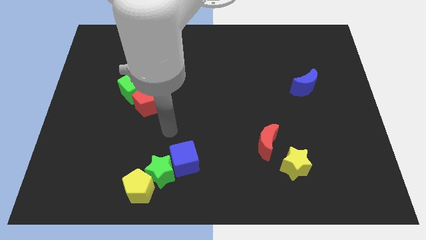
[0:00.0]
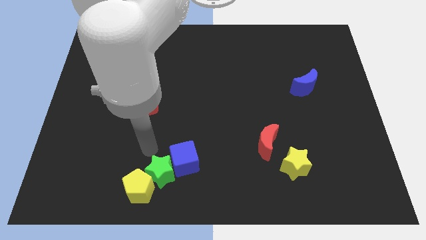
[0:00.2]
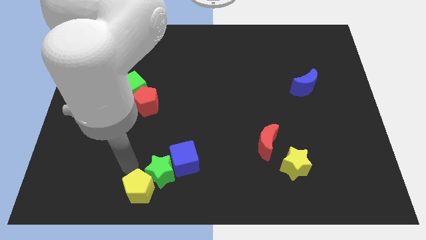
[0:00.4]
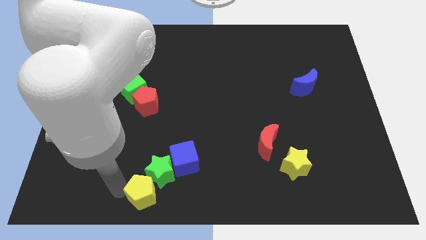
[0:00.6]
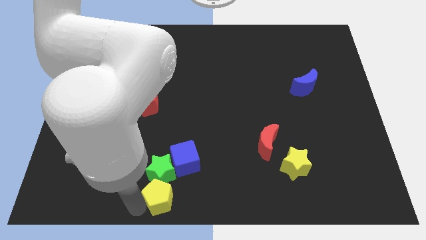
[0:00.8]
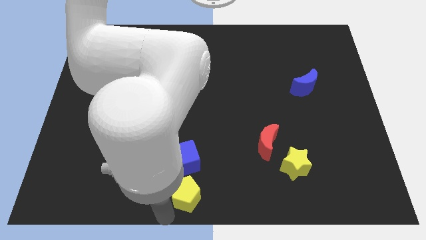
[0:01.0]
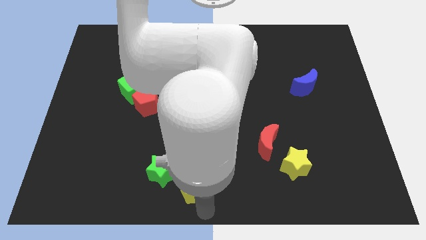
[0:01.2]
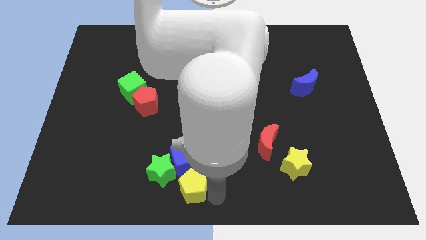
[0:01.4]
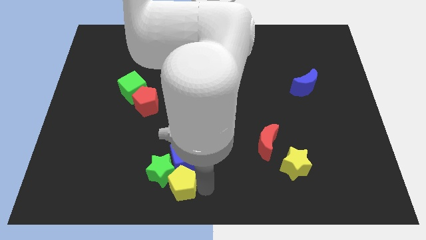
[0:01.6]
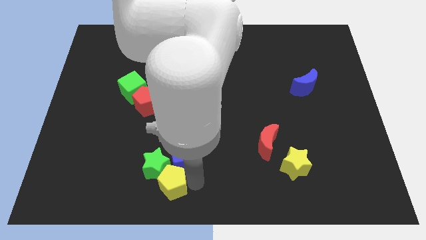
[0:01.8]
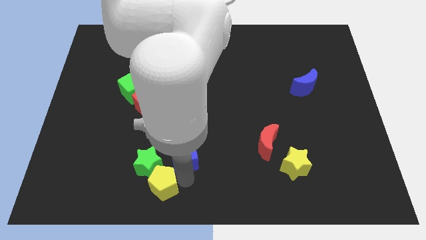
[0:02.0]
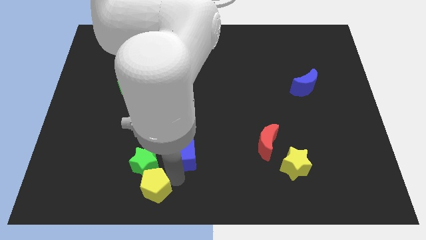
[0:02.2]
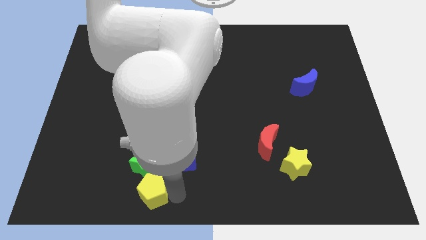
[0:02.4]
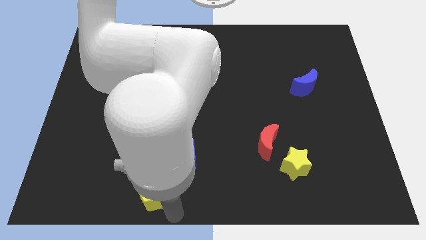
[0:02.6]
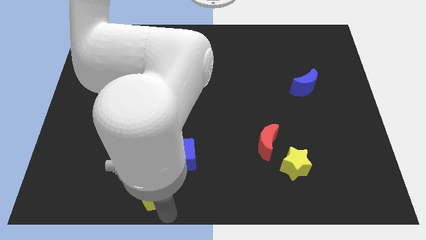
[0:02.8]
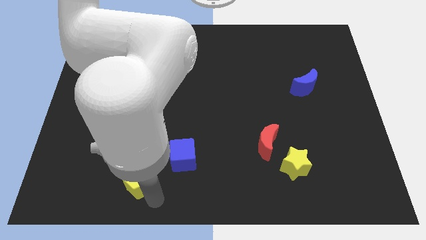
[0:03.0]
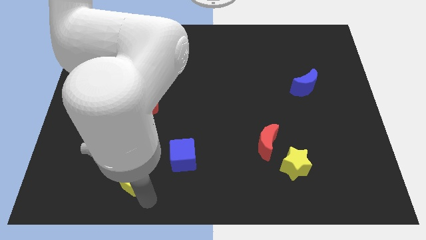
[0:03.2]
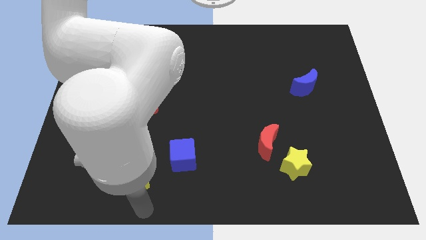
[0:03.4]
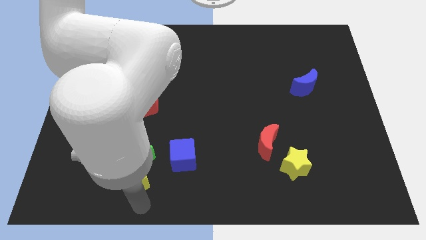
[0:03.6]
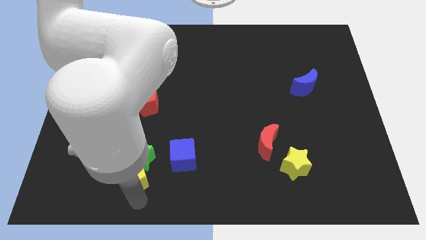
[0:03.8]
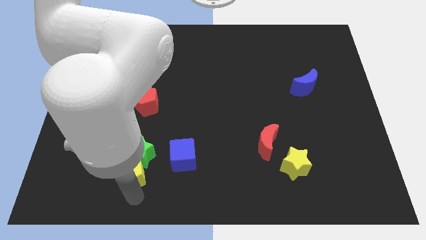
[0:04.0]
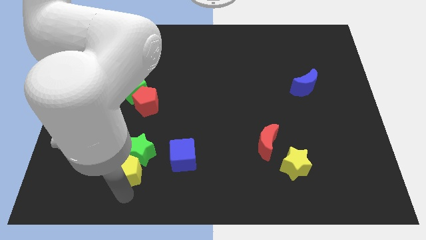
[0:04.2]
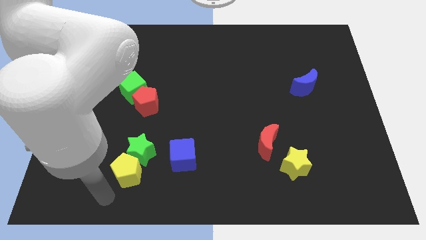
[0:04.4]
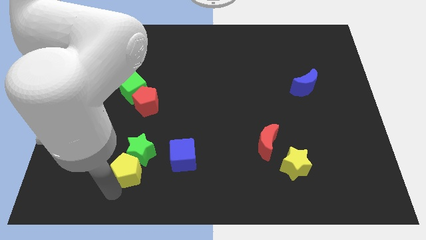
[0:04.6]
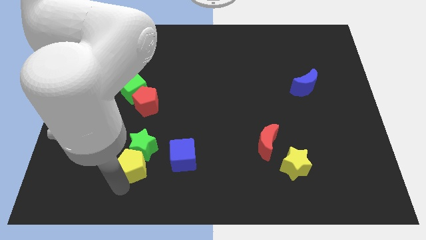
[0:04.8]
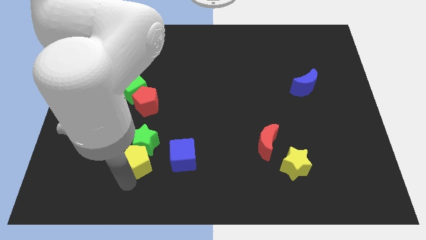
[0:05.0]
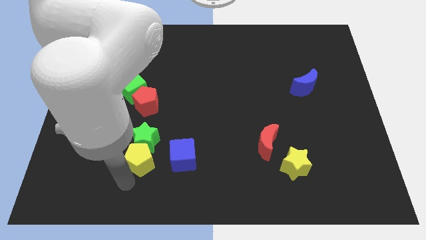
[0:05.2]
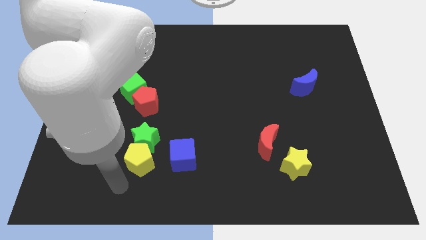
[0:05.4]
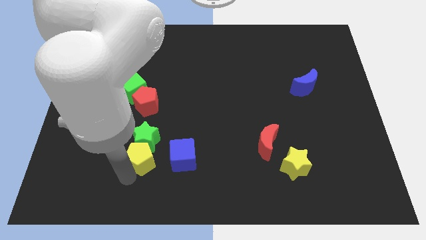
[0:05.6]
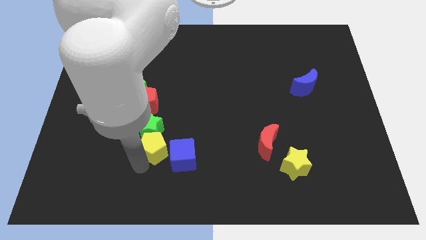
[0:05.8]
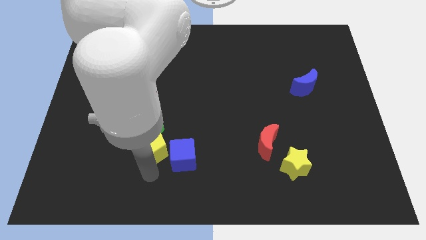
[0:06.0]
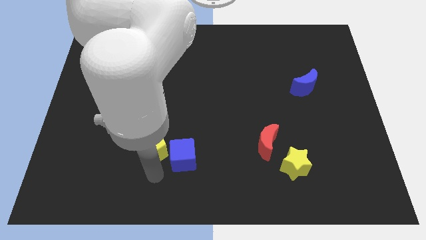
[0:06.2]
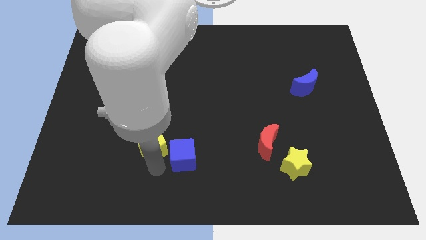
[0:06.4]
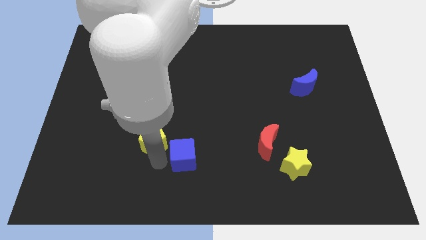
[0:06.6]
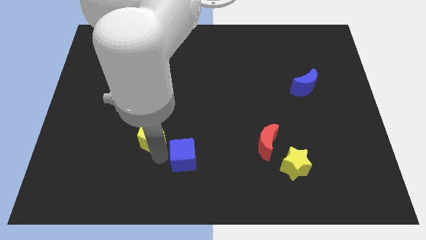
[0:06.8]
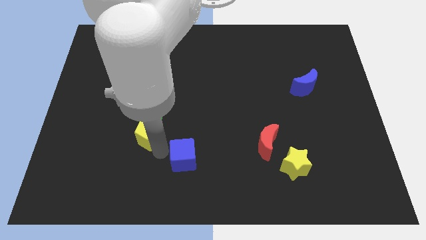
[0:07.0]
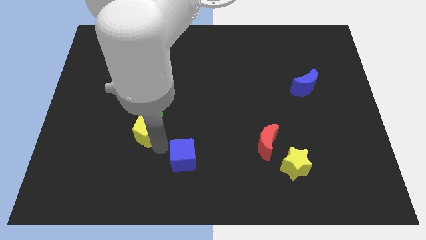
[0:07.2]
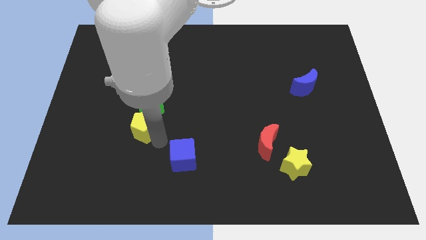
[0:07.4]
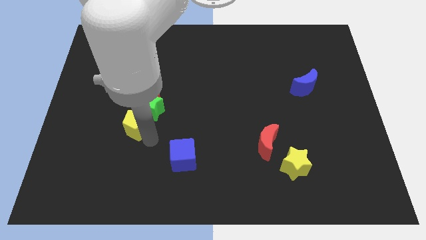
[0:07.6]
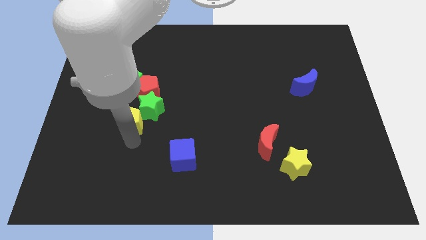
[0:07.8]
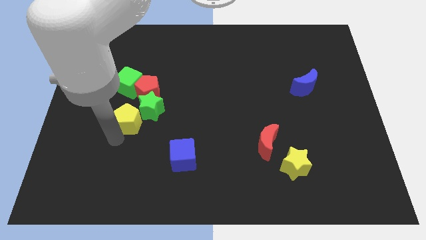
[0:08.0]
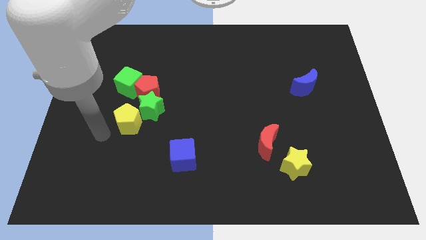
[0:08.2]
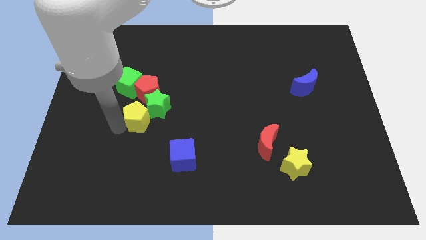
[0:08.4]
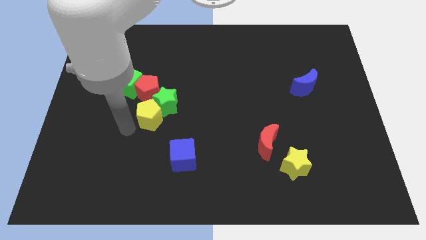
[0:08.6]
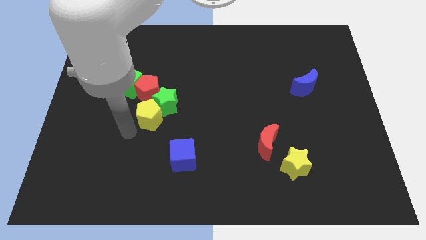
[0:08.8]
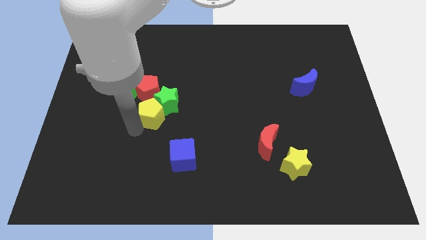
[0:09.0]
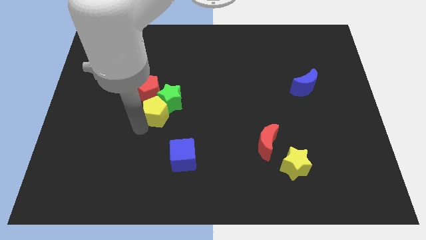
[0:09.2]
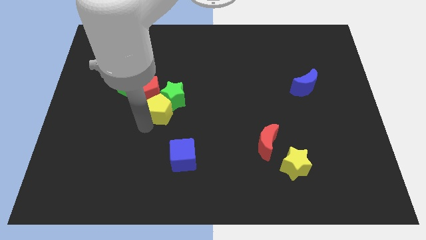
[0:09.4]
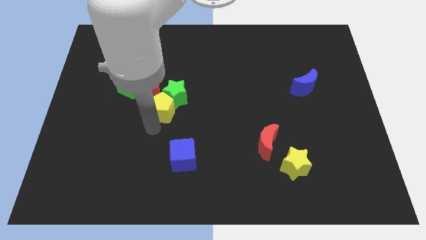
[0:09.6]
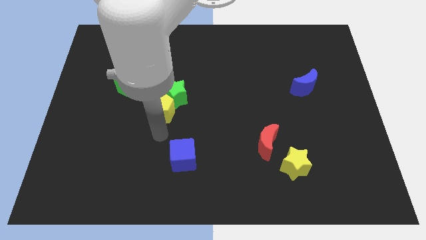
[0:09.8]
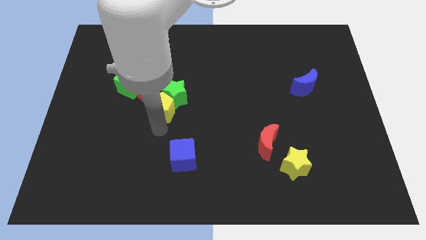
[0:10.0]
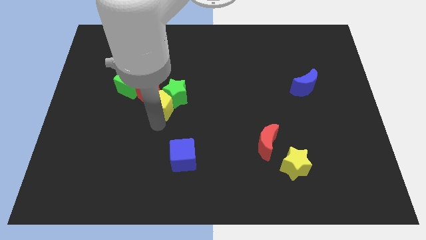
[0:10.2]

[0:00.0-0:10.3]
slide the yellow pentagon up

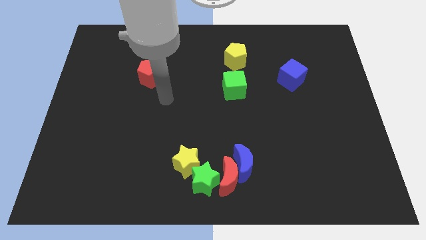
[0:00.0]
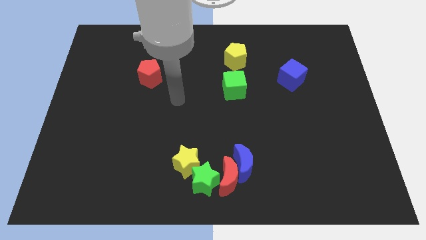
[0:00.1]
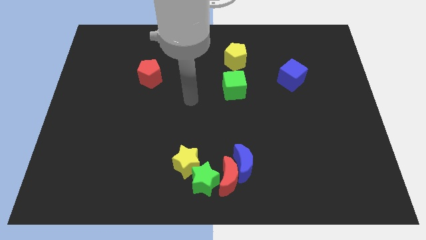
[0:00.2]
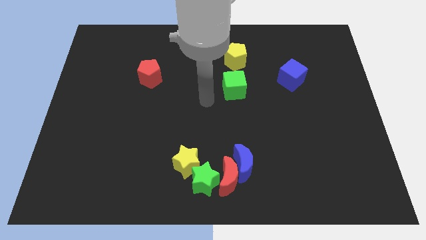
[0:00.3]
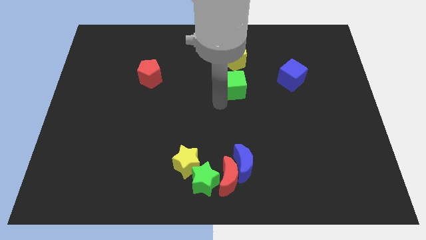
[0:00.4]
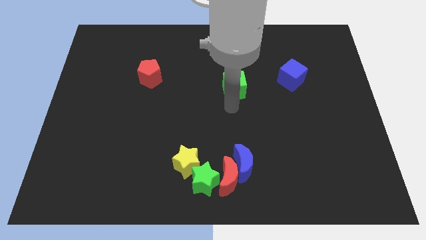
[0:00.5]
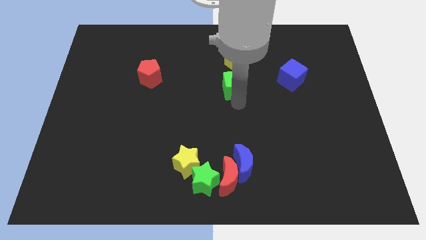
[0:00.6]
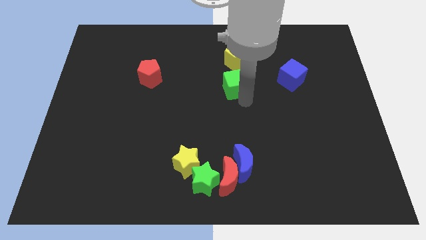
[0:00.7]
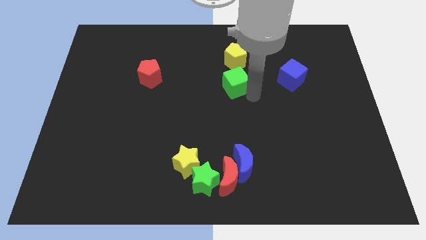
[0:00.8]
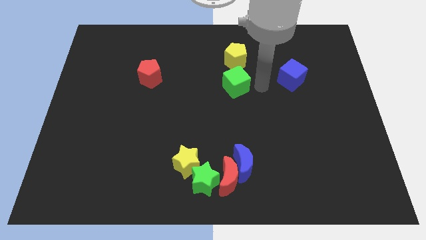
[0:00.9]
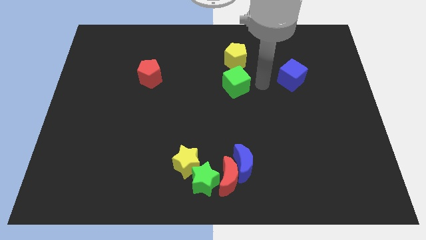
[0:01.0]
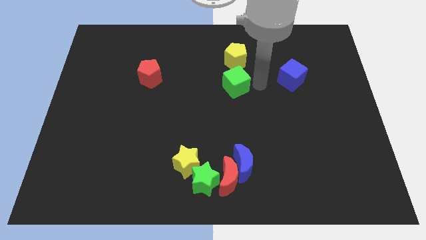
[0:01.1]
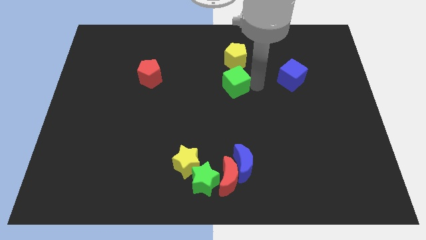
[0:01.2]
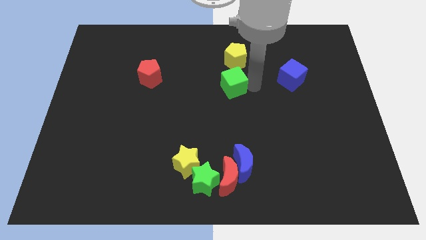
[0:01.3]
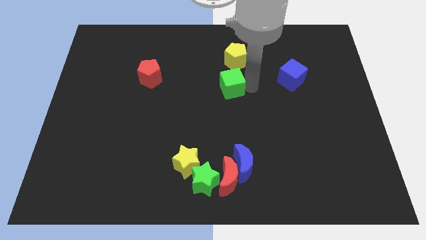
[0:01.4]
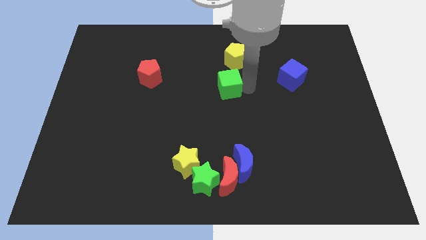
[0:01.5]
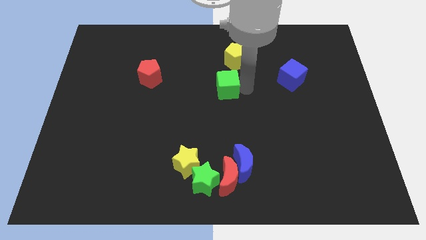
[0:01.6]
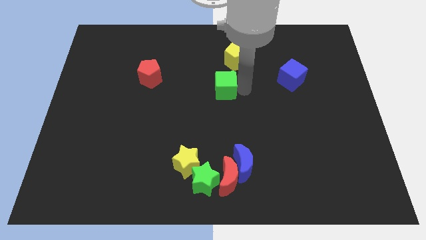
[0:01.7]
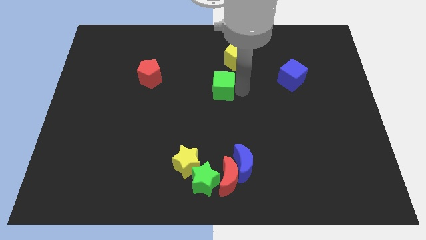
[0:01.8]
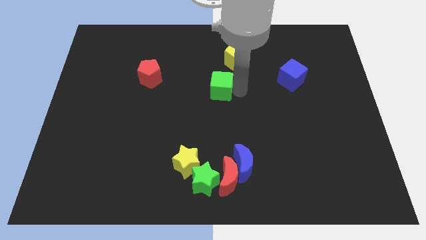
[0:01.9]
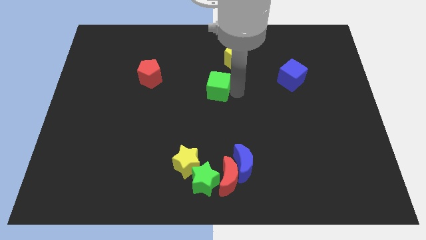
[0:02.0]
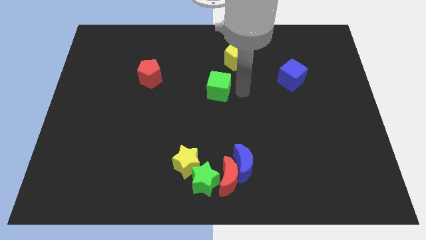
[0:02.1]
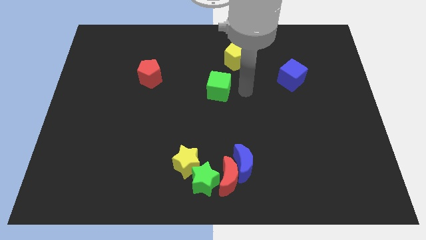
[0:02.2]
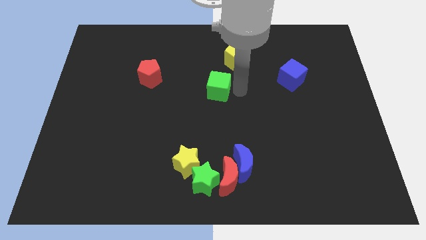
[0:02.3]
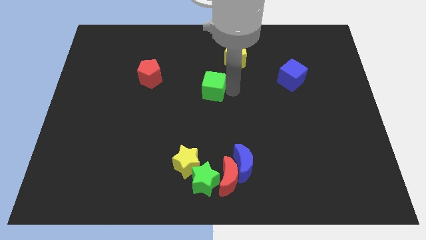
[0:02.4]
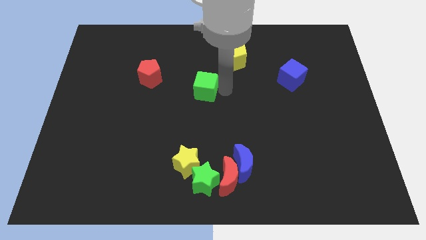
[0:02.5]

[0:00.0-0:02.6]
slide the green cube a little bit left
